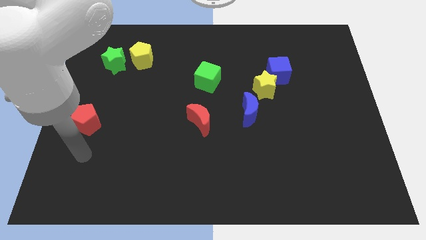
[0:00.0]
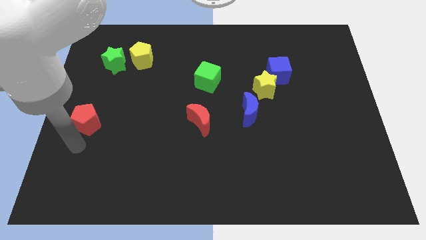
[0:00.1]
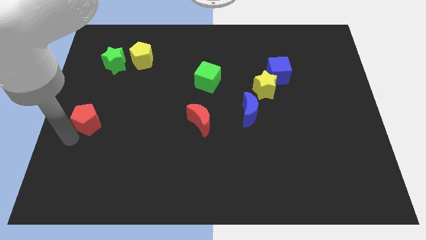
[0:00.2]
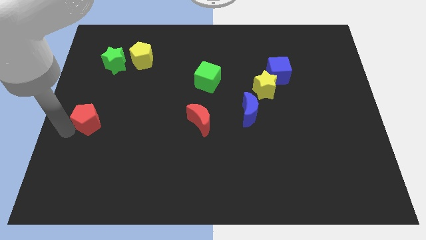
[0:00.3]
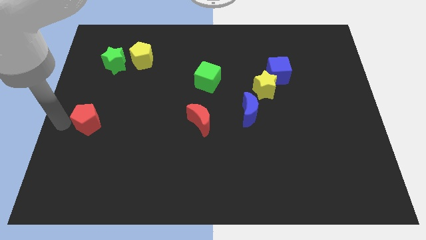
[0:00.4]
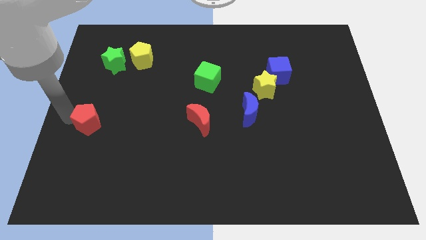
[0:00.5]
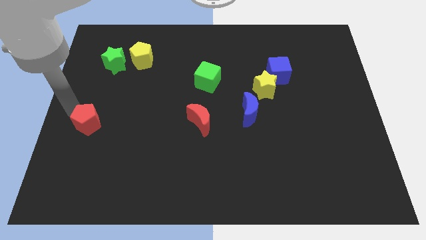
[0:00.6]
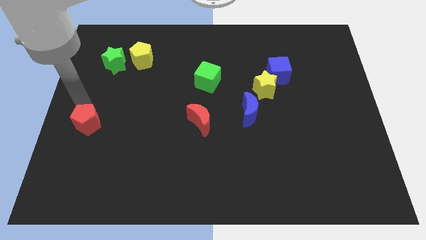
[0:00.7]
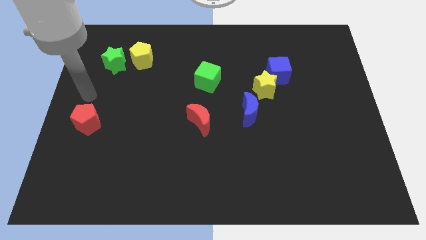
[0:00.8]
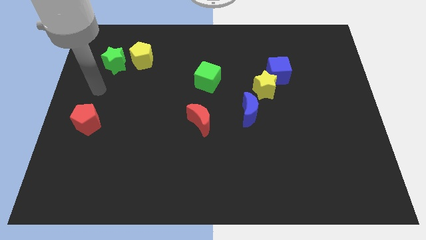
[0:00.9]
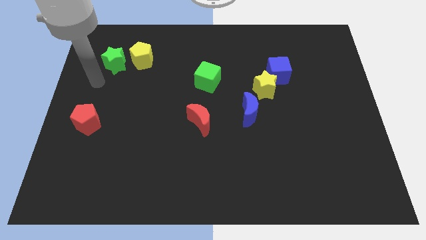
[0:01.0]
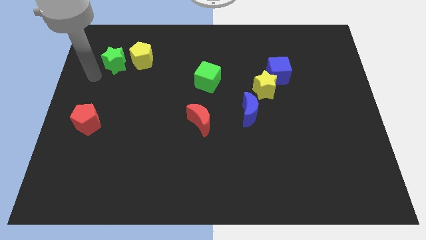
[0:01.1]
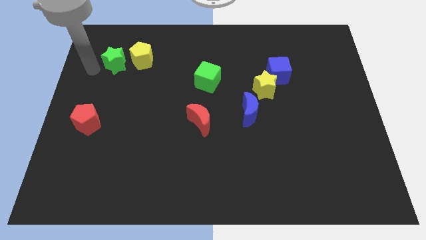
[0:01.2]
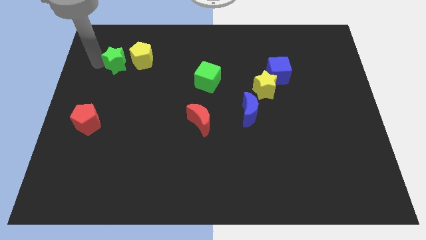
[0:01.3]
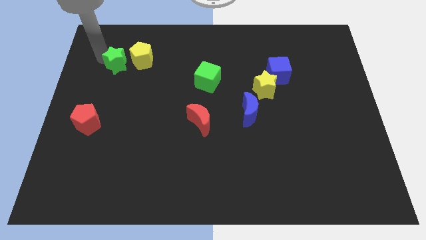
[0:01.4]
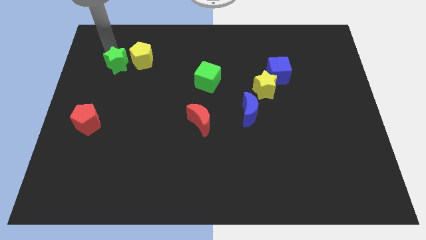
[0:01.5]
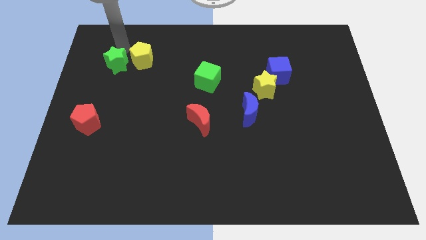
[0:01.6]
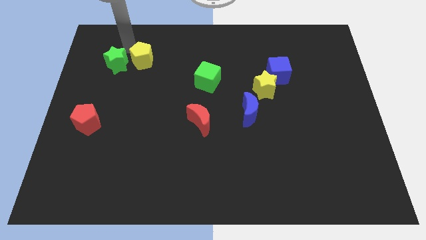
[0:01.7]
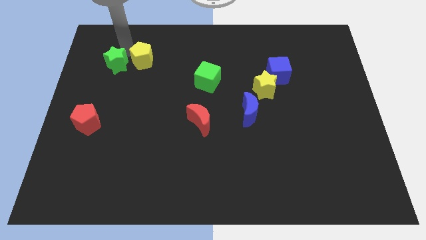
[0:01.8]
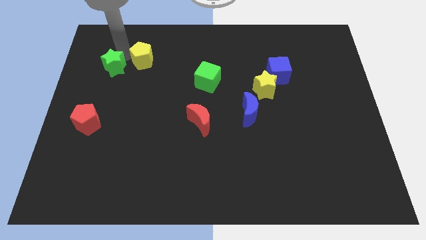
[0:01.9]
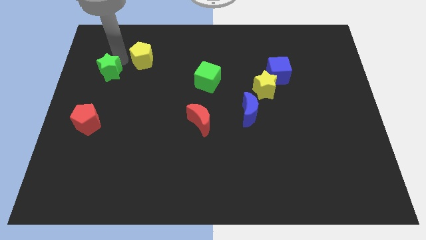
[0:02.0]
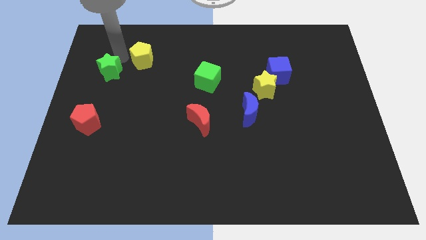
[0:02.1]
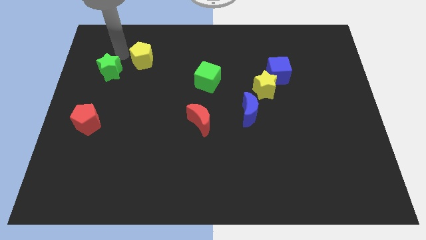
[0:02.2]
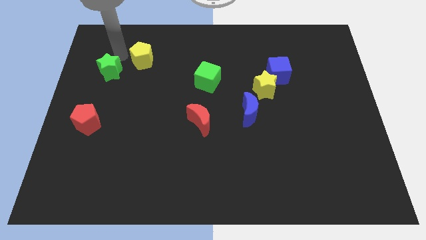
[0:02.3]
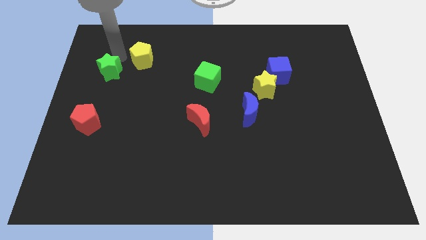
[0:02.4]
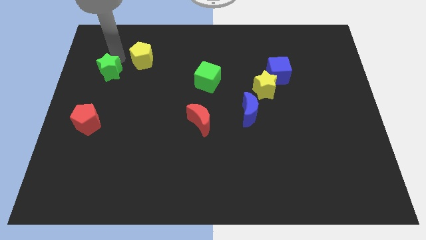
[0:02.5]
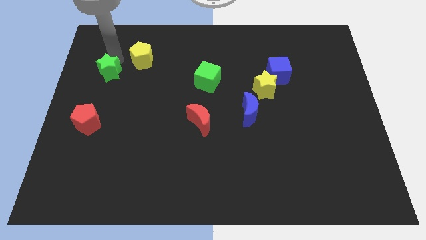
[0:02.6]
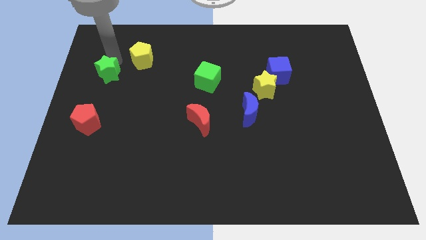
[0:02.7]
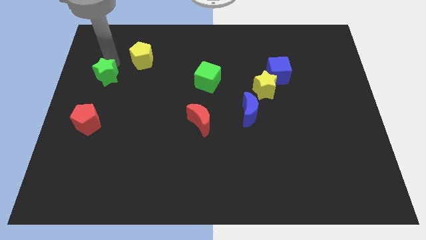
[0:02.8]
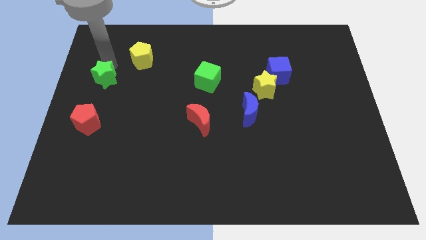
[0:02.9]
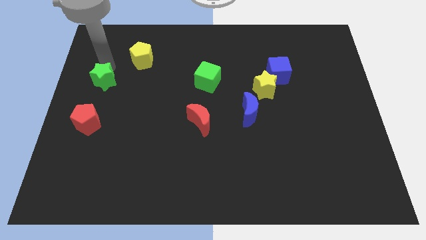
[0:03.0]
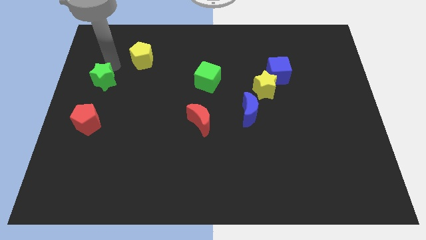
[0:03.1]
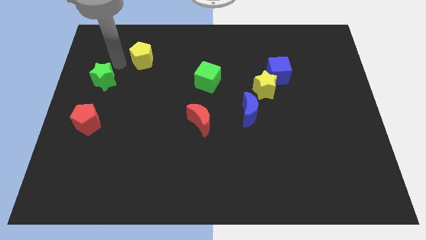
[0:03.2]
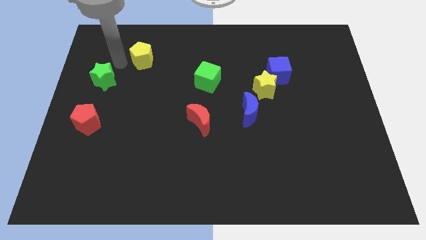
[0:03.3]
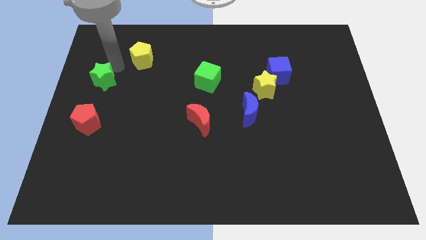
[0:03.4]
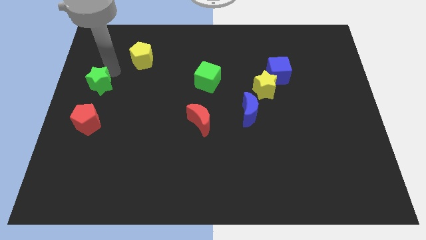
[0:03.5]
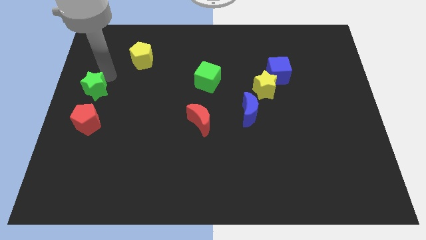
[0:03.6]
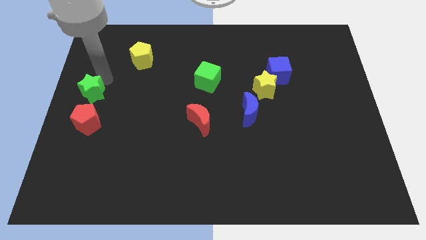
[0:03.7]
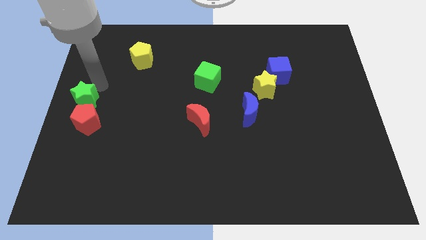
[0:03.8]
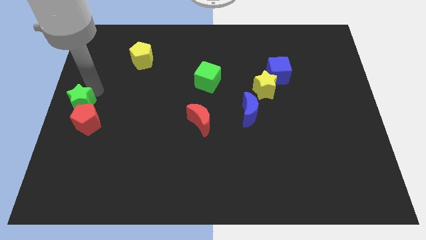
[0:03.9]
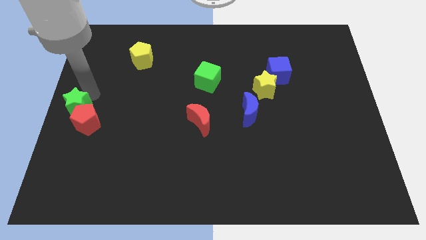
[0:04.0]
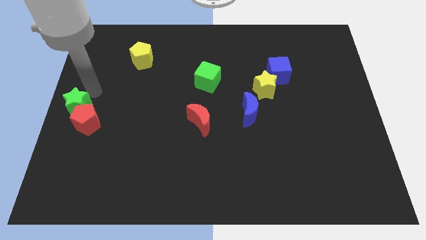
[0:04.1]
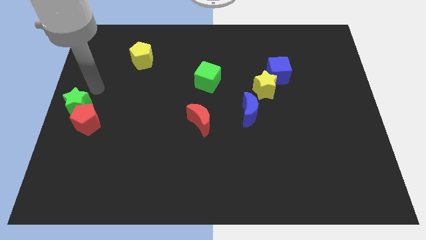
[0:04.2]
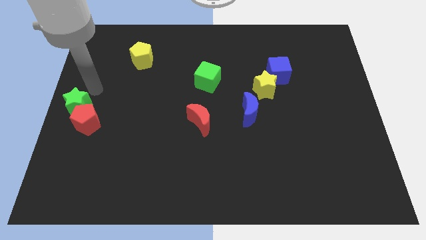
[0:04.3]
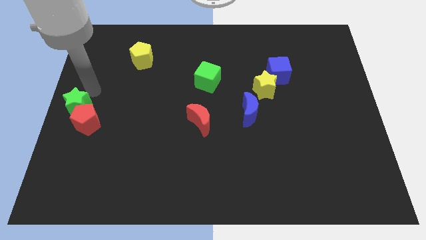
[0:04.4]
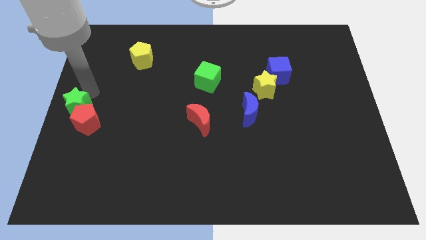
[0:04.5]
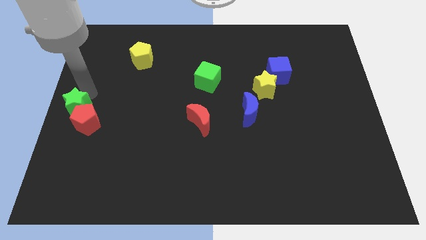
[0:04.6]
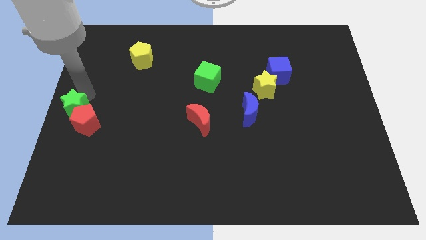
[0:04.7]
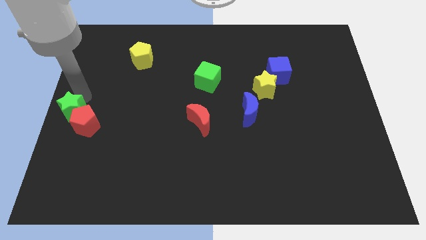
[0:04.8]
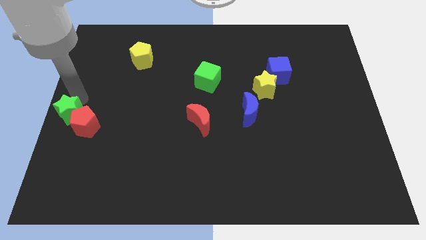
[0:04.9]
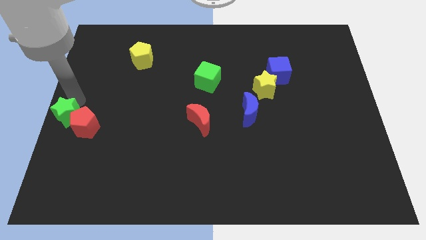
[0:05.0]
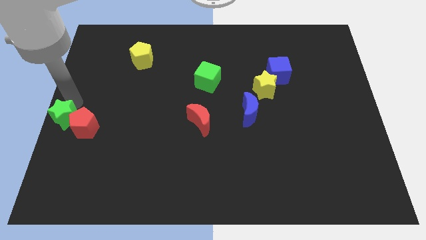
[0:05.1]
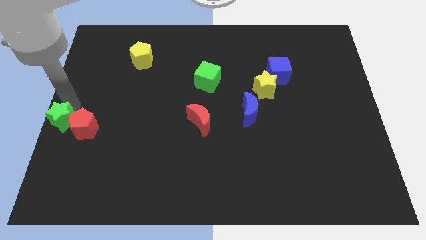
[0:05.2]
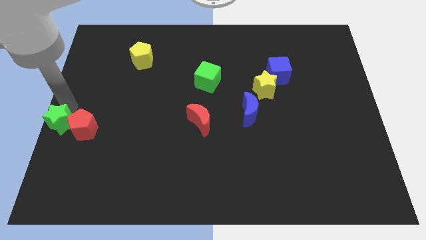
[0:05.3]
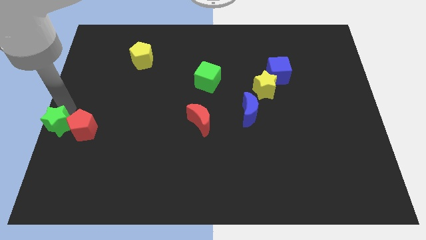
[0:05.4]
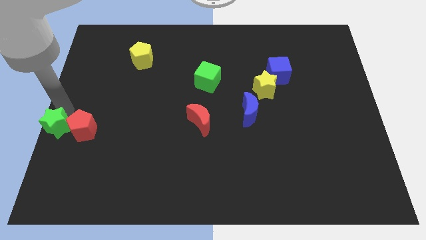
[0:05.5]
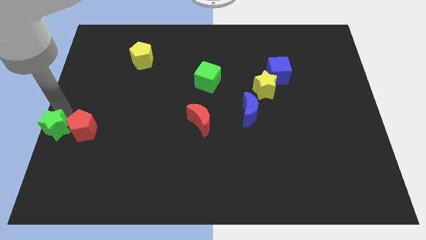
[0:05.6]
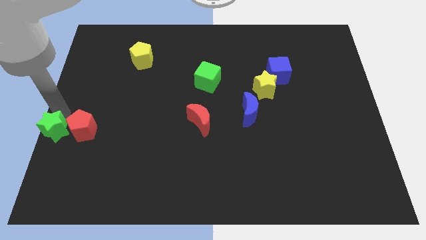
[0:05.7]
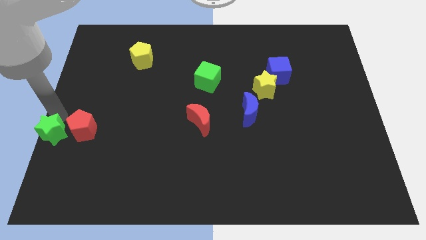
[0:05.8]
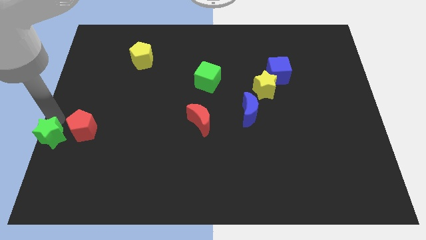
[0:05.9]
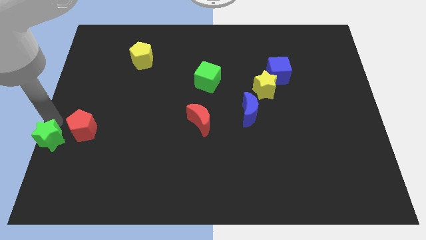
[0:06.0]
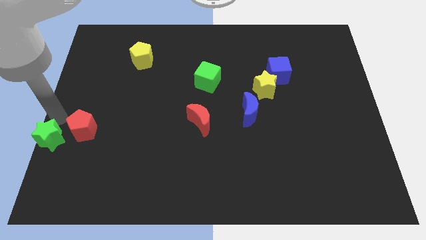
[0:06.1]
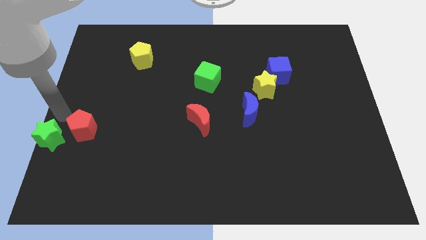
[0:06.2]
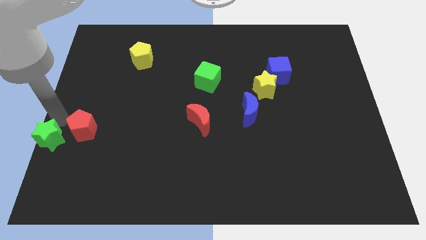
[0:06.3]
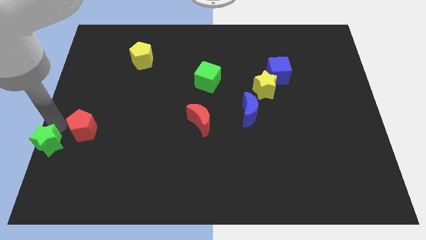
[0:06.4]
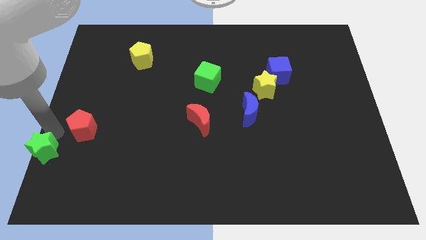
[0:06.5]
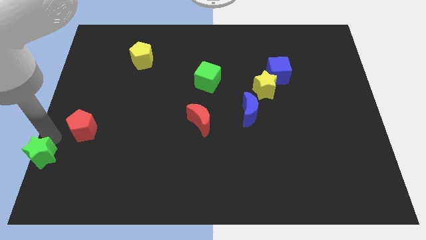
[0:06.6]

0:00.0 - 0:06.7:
move the green star to the lower left corner
